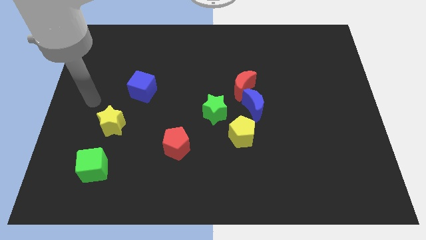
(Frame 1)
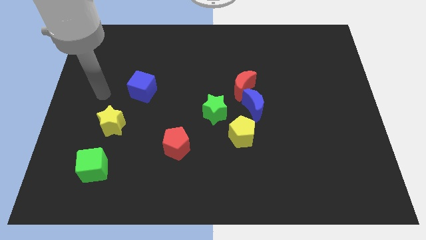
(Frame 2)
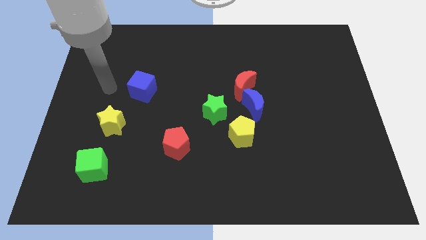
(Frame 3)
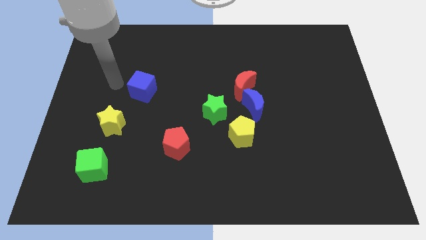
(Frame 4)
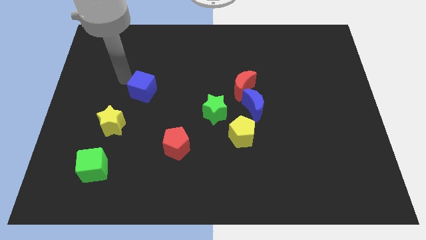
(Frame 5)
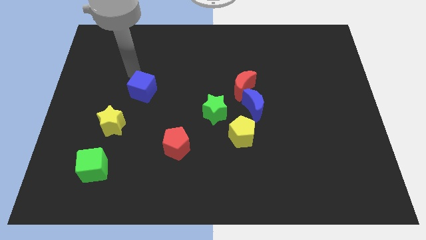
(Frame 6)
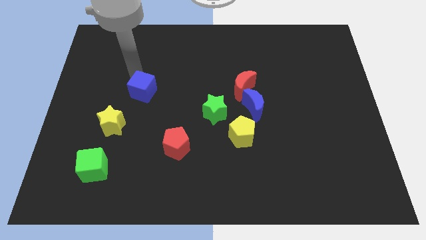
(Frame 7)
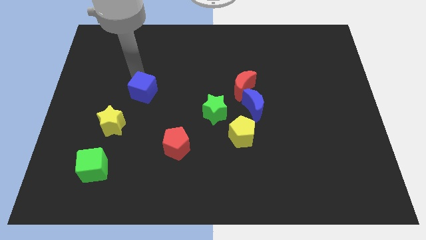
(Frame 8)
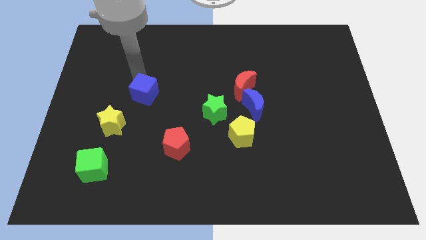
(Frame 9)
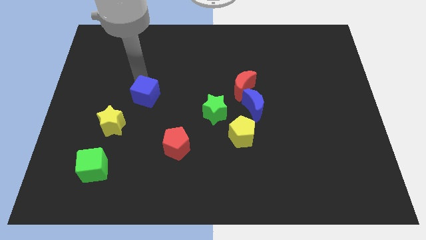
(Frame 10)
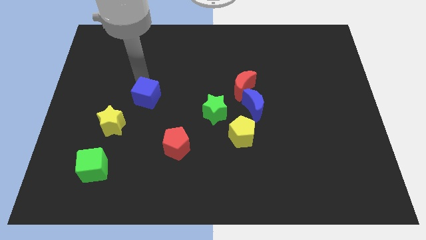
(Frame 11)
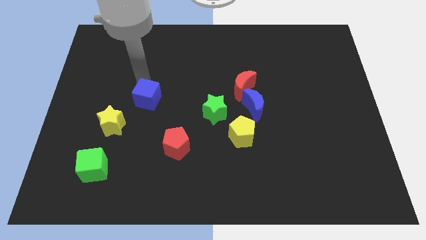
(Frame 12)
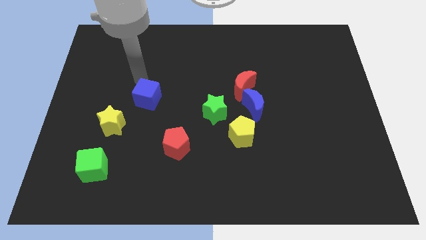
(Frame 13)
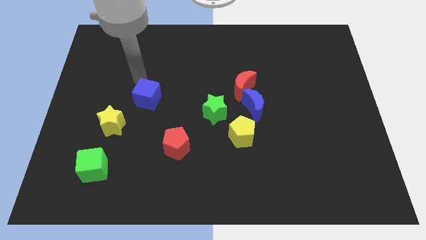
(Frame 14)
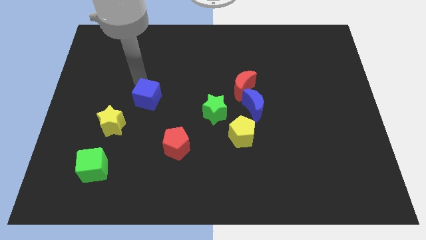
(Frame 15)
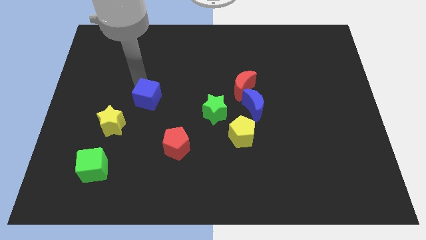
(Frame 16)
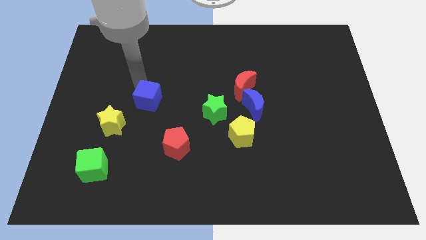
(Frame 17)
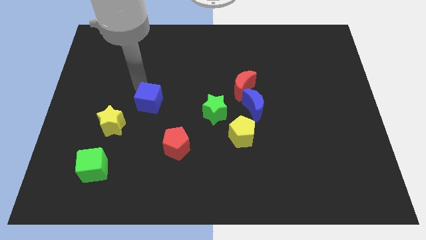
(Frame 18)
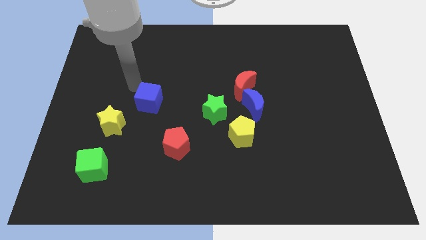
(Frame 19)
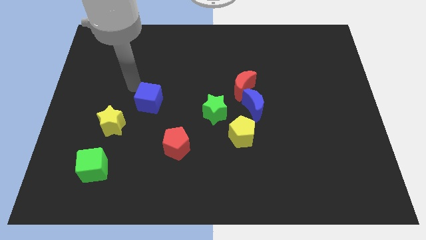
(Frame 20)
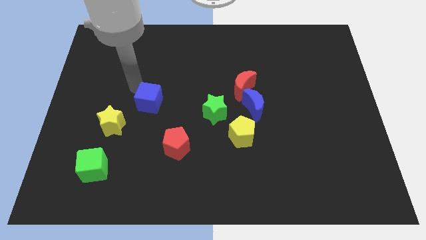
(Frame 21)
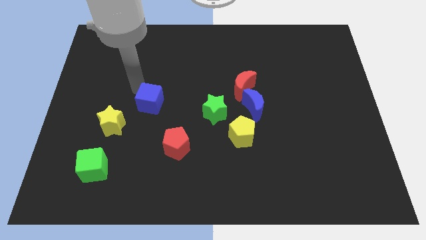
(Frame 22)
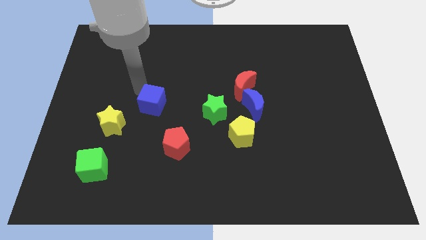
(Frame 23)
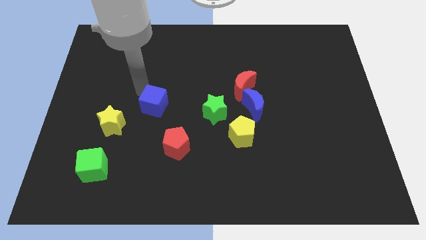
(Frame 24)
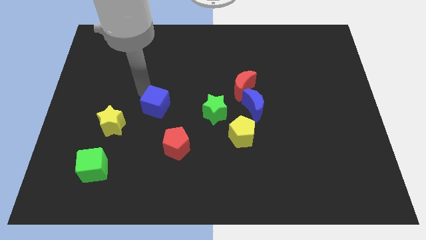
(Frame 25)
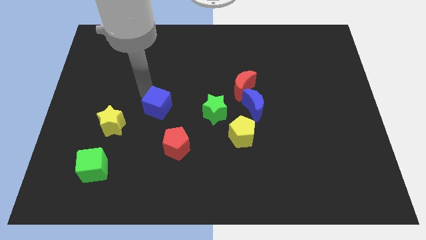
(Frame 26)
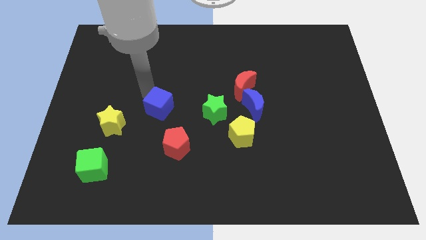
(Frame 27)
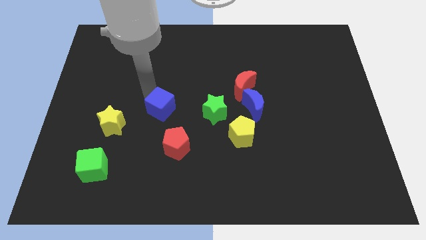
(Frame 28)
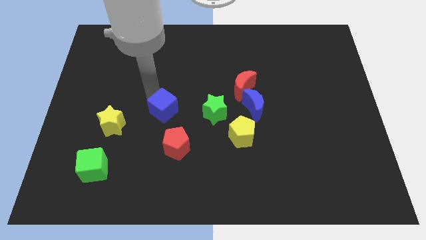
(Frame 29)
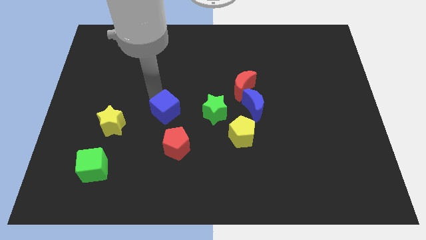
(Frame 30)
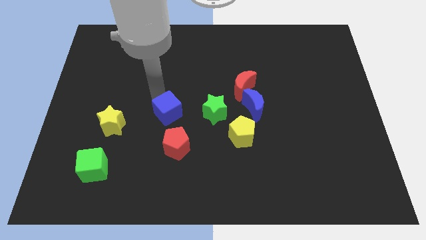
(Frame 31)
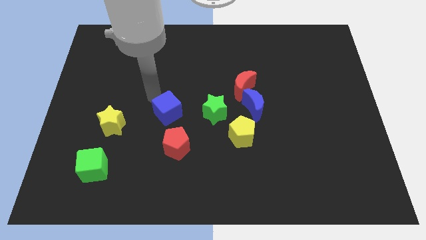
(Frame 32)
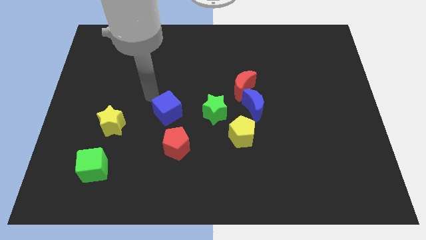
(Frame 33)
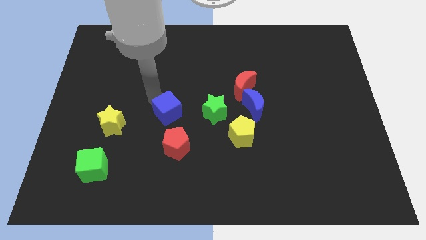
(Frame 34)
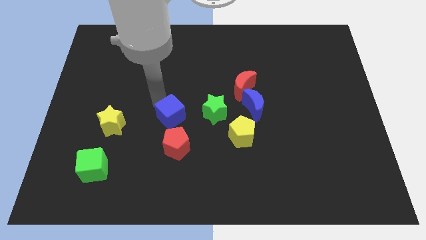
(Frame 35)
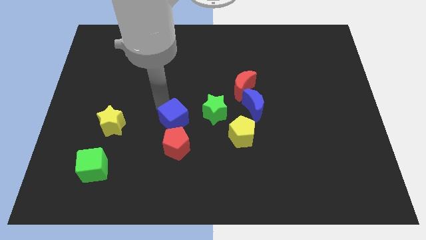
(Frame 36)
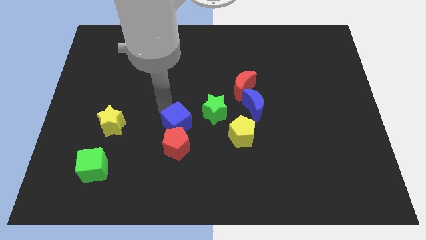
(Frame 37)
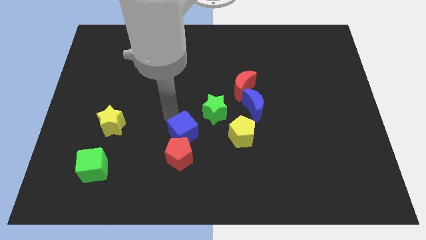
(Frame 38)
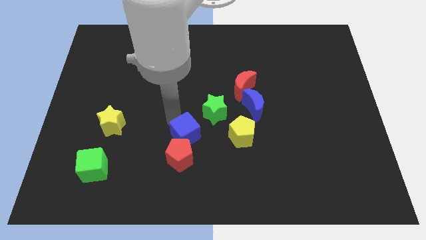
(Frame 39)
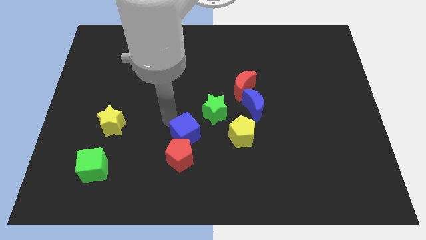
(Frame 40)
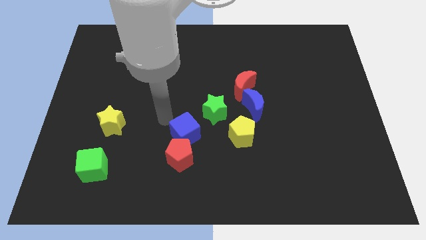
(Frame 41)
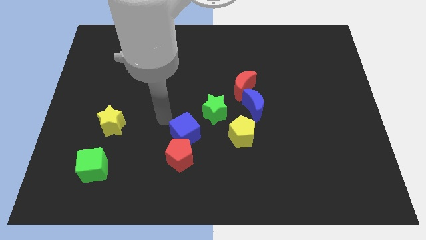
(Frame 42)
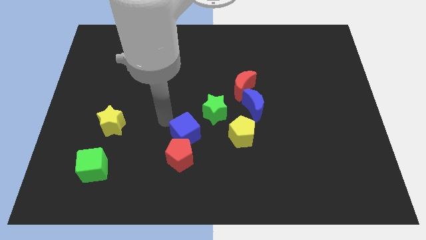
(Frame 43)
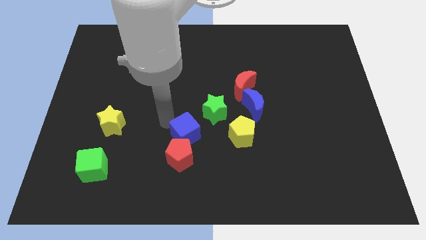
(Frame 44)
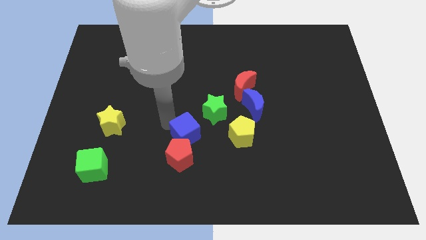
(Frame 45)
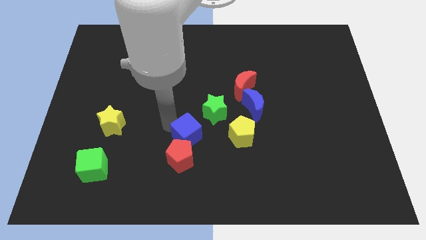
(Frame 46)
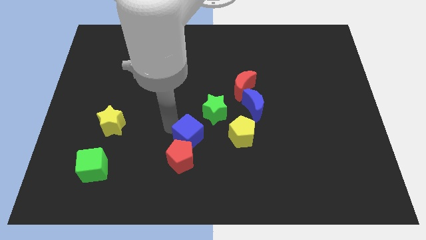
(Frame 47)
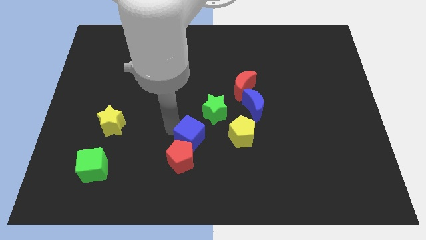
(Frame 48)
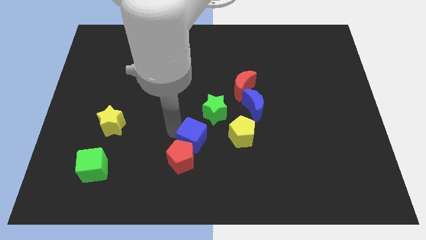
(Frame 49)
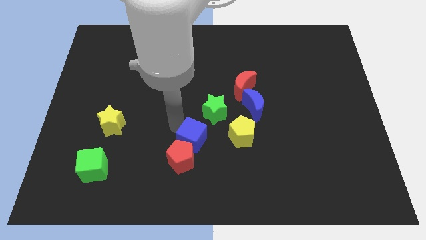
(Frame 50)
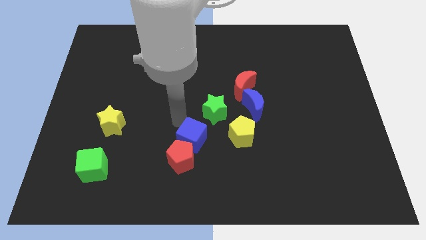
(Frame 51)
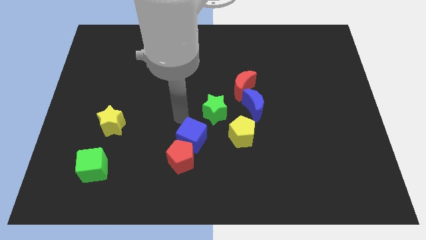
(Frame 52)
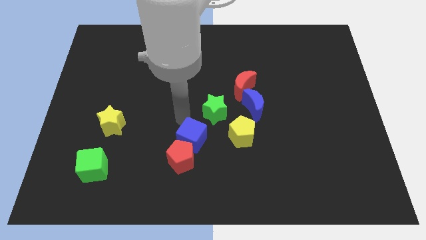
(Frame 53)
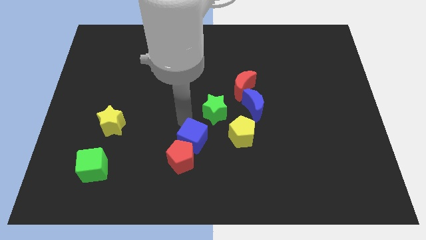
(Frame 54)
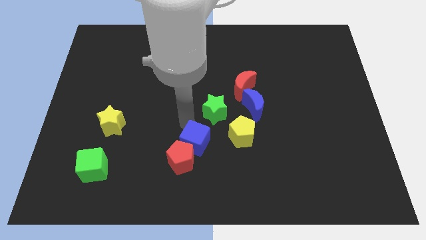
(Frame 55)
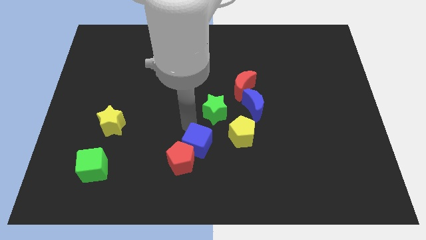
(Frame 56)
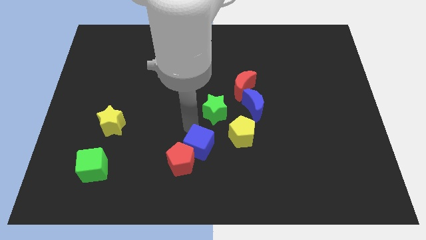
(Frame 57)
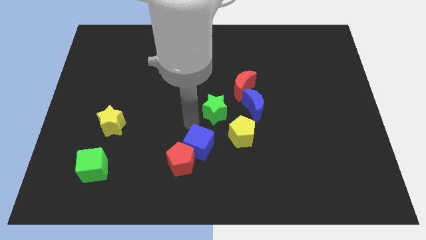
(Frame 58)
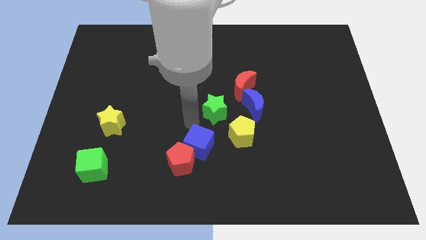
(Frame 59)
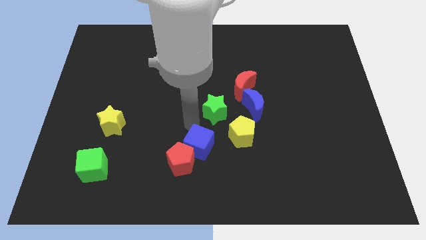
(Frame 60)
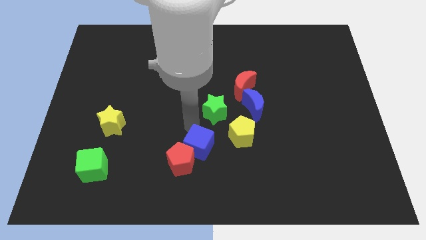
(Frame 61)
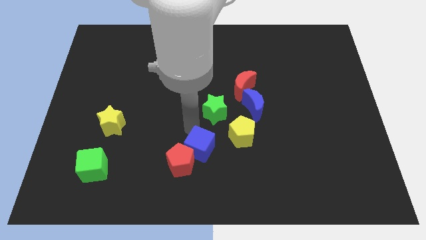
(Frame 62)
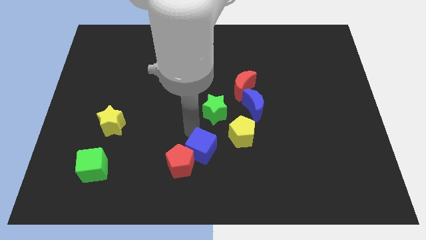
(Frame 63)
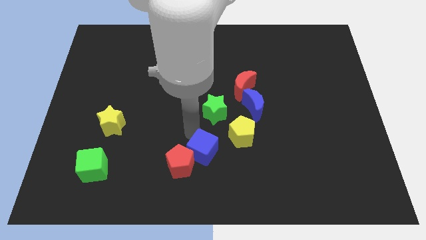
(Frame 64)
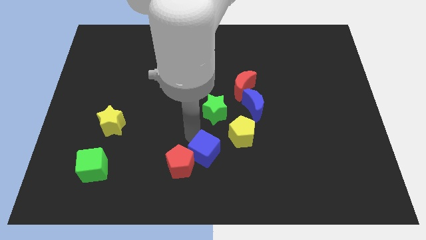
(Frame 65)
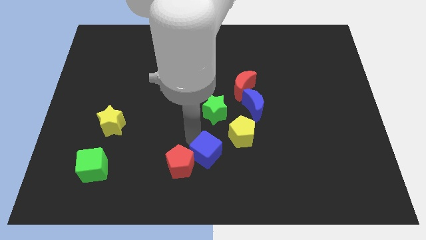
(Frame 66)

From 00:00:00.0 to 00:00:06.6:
move the blue cube to the bottom side
